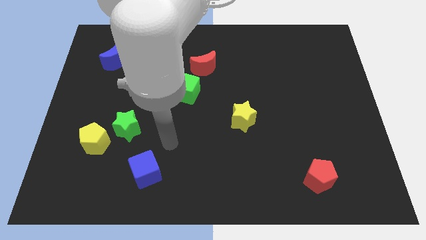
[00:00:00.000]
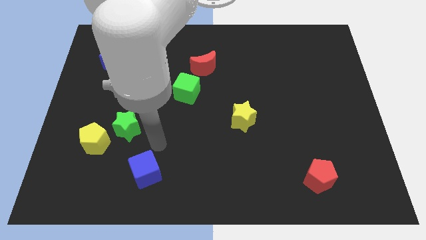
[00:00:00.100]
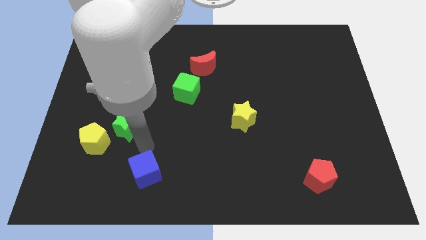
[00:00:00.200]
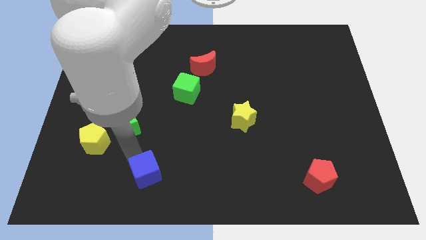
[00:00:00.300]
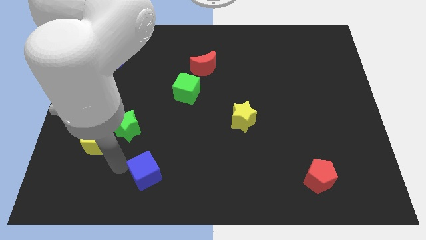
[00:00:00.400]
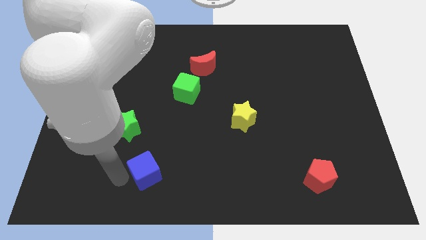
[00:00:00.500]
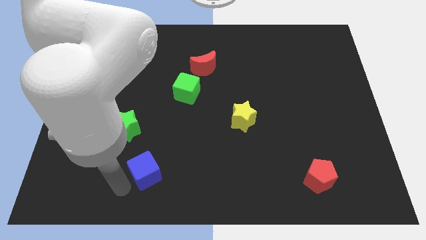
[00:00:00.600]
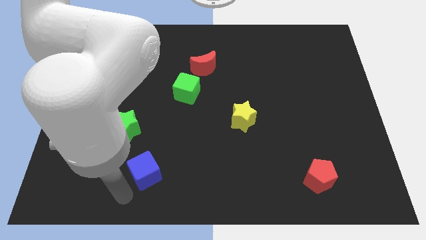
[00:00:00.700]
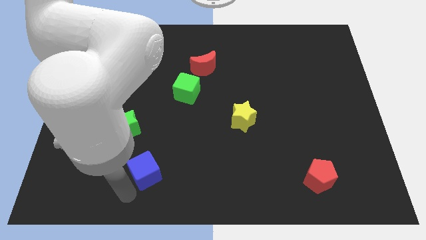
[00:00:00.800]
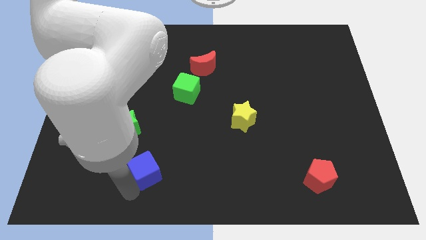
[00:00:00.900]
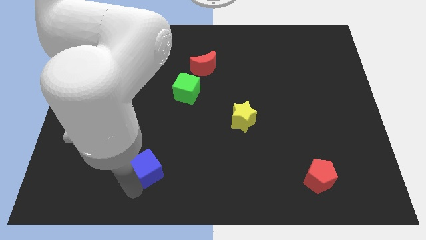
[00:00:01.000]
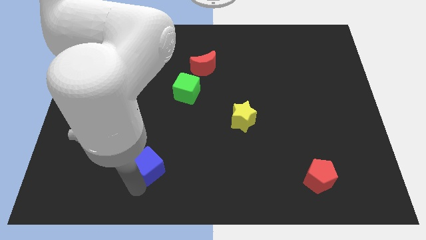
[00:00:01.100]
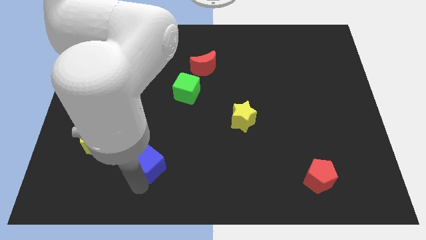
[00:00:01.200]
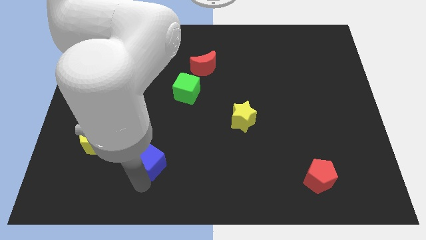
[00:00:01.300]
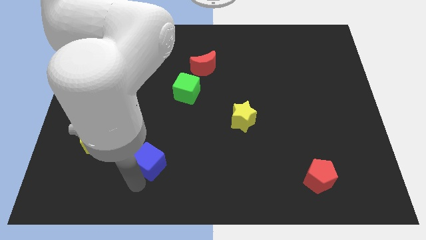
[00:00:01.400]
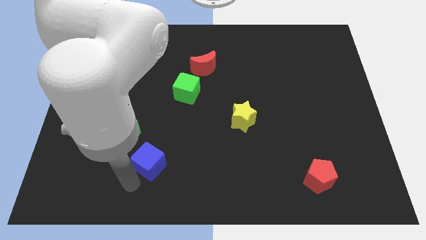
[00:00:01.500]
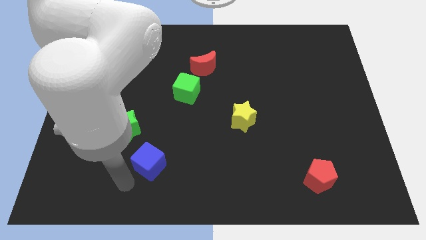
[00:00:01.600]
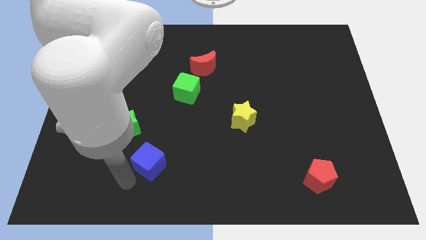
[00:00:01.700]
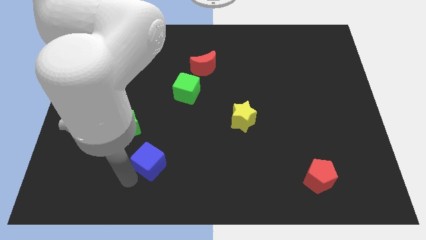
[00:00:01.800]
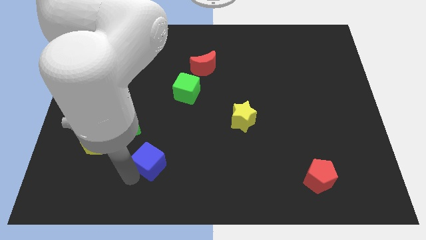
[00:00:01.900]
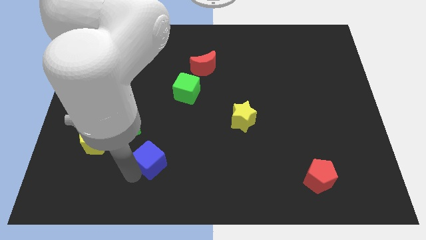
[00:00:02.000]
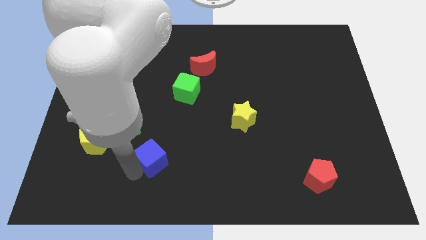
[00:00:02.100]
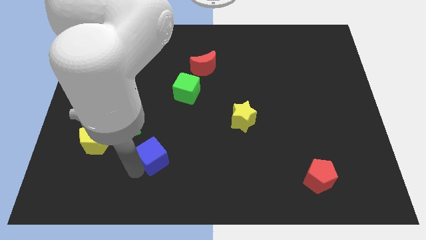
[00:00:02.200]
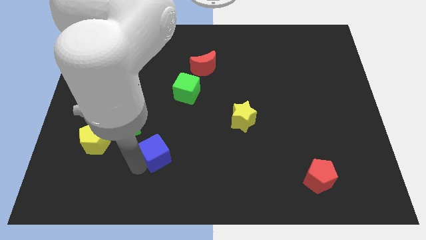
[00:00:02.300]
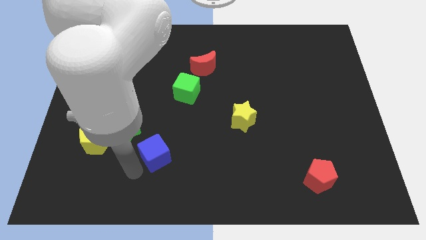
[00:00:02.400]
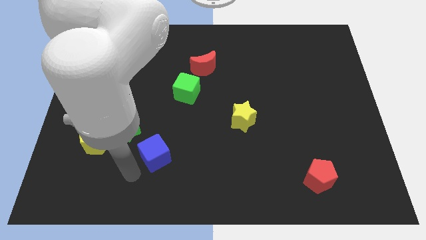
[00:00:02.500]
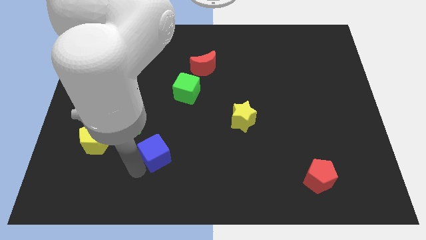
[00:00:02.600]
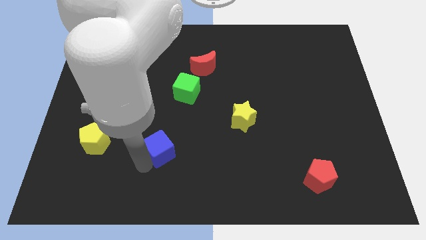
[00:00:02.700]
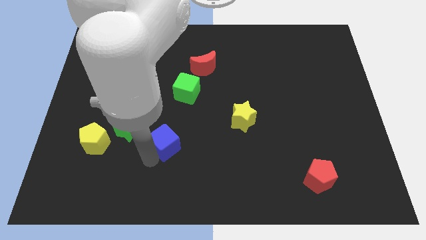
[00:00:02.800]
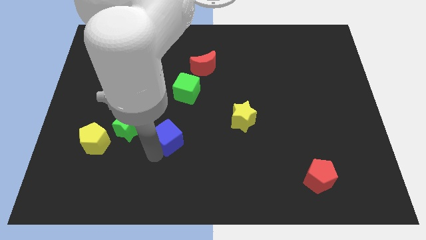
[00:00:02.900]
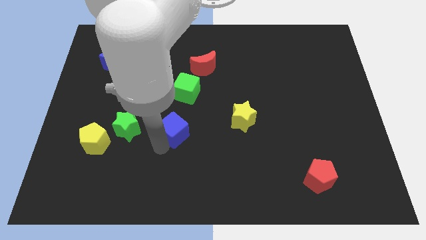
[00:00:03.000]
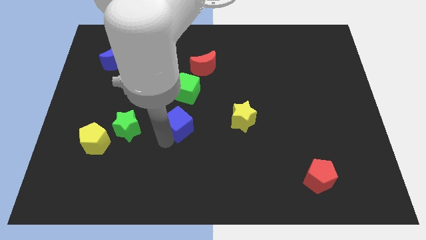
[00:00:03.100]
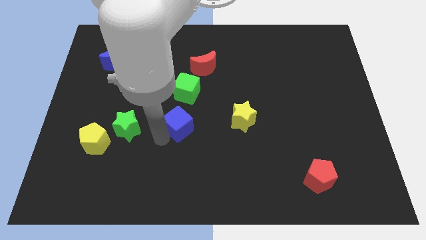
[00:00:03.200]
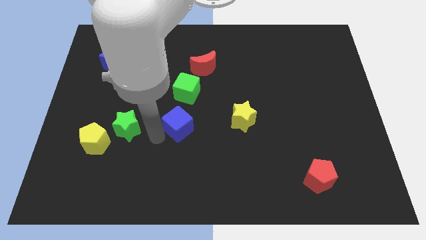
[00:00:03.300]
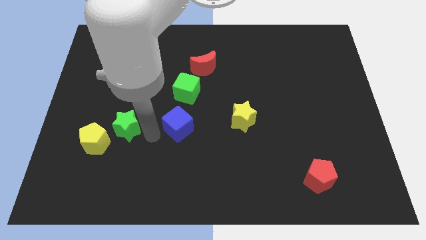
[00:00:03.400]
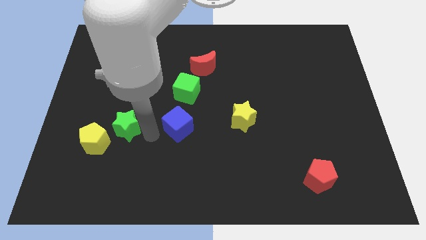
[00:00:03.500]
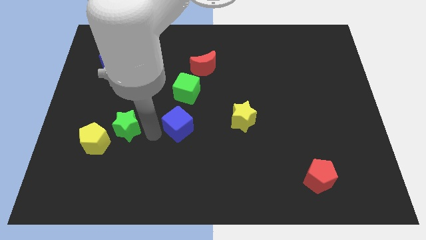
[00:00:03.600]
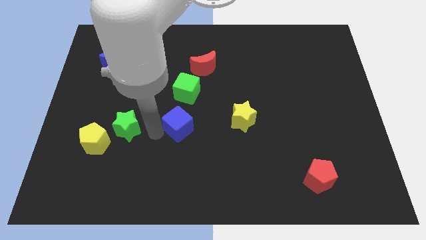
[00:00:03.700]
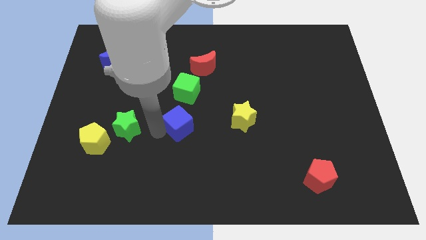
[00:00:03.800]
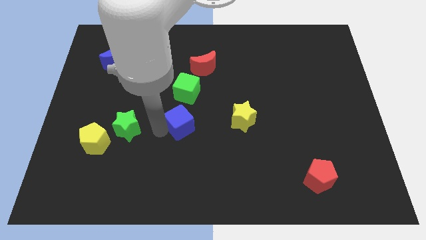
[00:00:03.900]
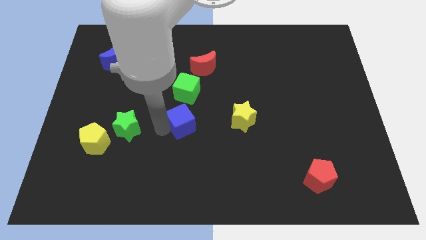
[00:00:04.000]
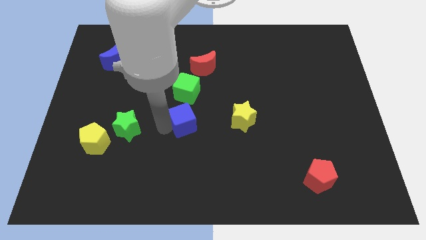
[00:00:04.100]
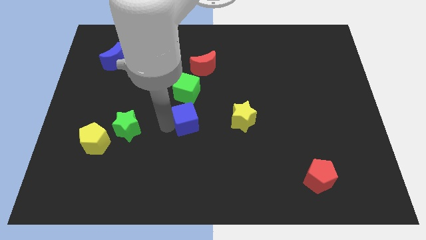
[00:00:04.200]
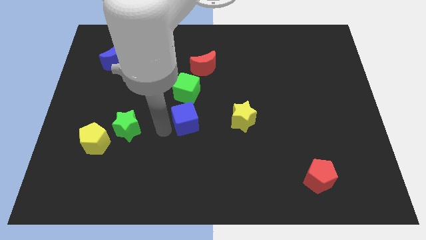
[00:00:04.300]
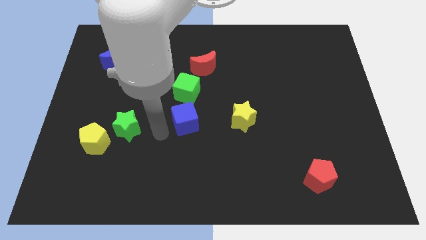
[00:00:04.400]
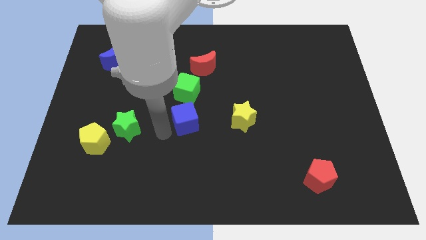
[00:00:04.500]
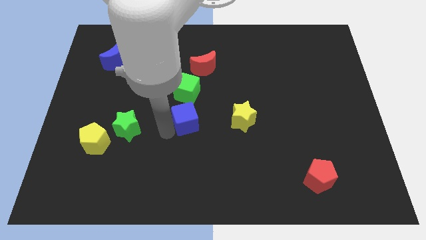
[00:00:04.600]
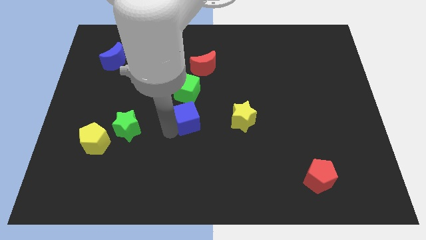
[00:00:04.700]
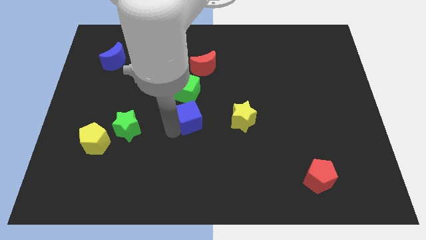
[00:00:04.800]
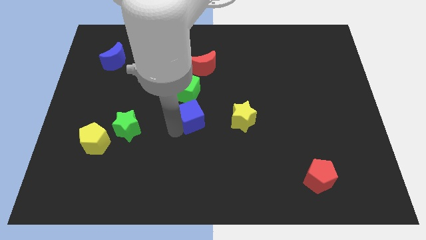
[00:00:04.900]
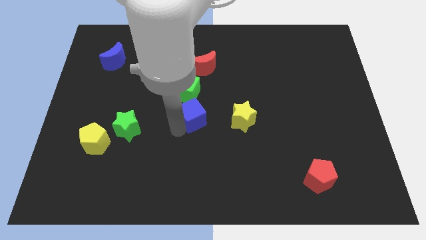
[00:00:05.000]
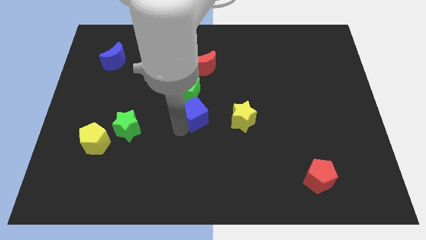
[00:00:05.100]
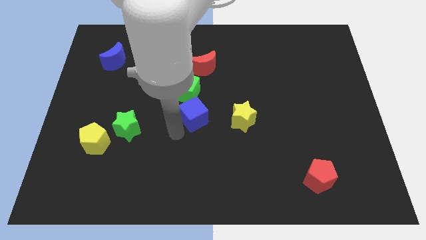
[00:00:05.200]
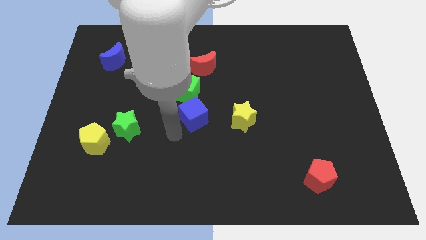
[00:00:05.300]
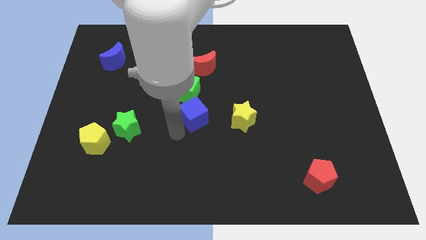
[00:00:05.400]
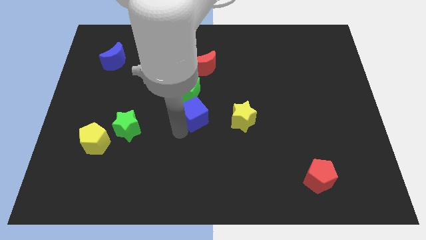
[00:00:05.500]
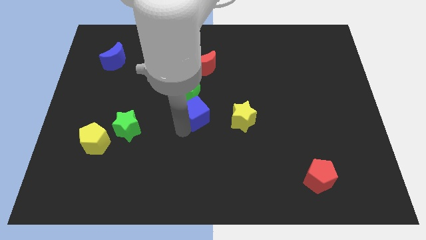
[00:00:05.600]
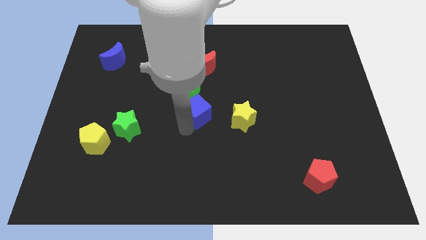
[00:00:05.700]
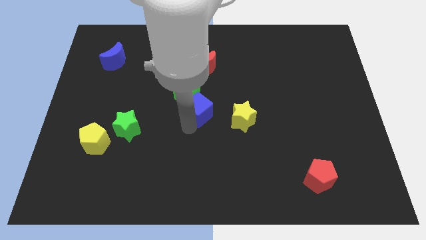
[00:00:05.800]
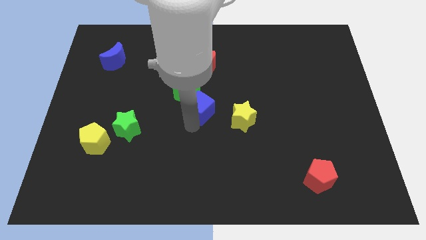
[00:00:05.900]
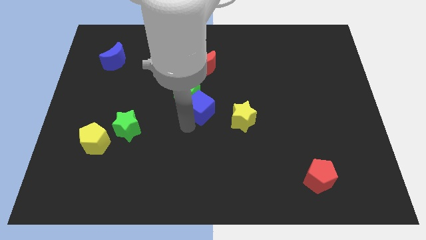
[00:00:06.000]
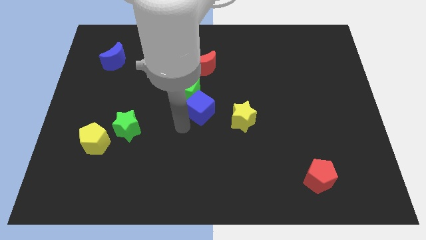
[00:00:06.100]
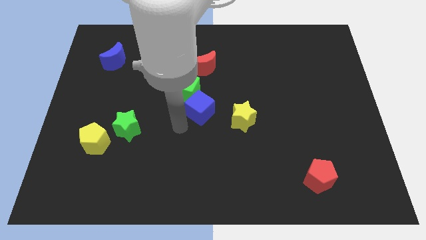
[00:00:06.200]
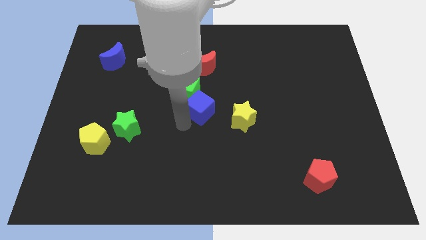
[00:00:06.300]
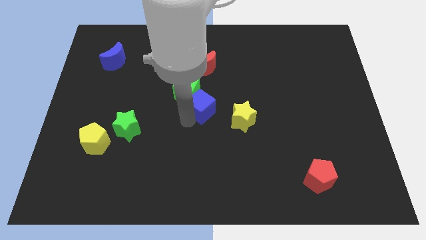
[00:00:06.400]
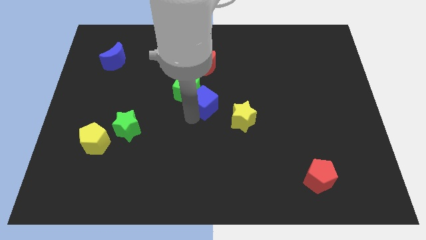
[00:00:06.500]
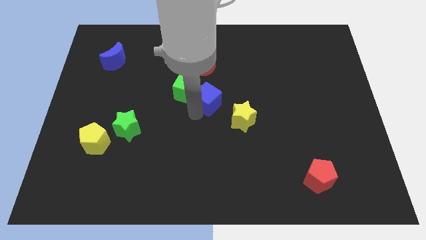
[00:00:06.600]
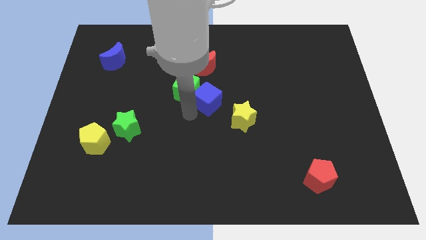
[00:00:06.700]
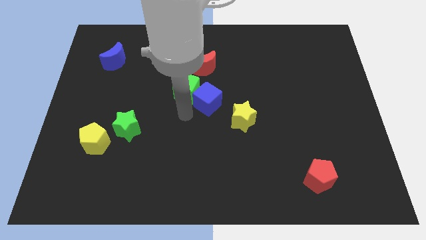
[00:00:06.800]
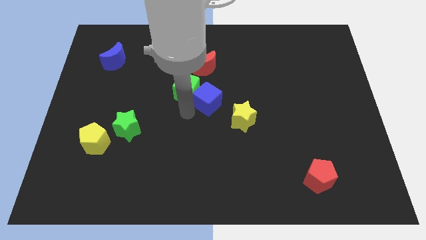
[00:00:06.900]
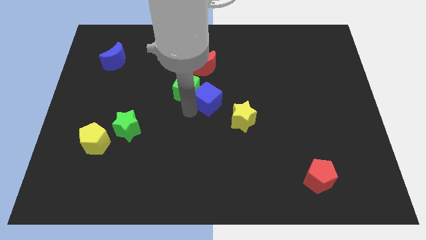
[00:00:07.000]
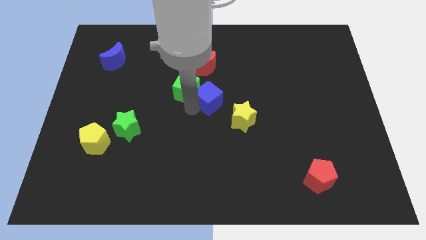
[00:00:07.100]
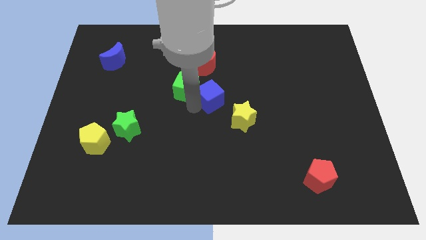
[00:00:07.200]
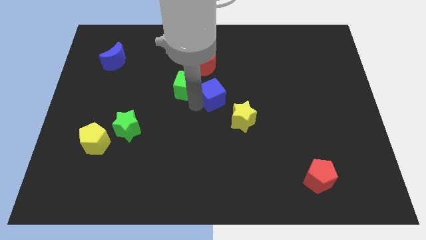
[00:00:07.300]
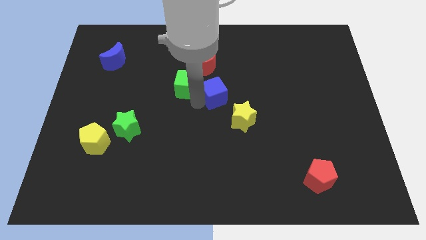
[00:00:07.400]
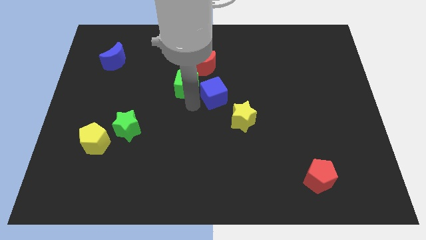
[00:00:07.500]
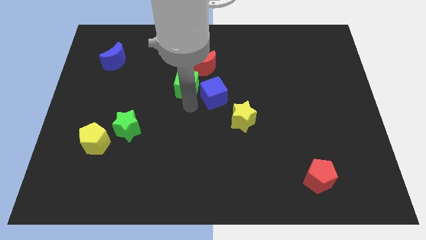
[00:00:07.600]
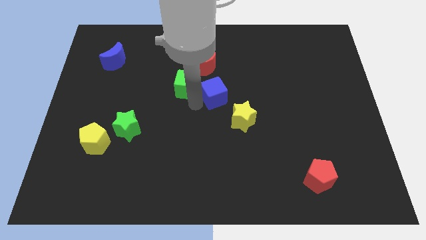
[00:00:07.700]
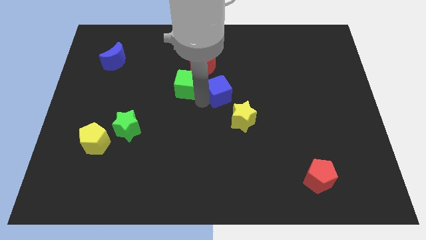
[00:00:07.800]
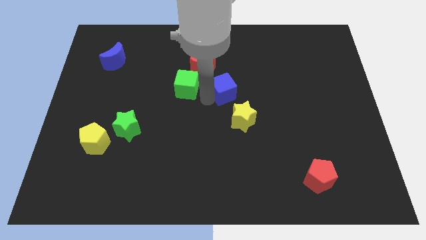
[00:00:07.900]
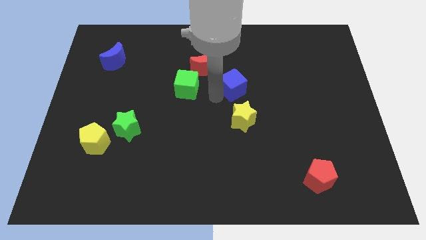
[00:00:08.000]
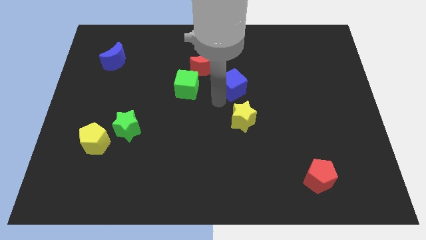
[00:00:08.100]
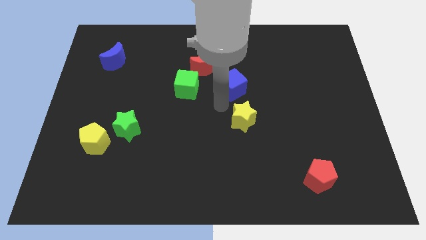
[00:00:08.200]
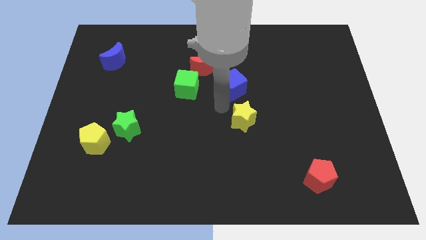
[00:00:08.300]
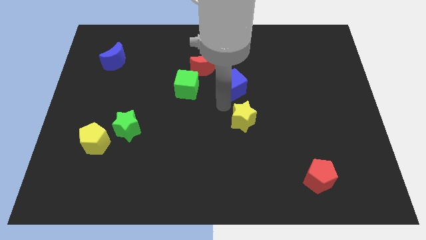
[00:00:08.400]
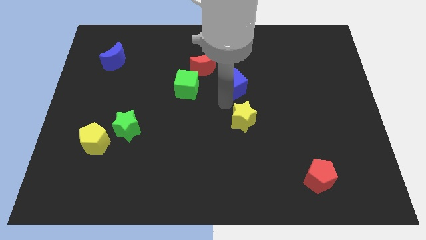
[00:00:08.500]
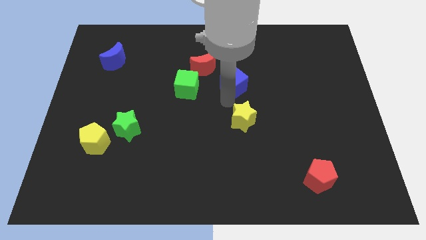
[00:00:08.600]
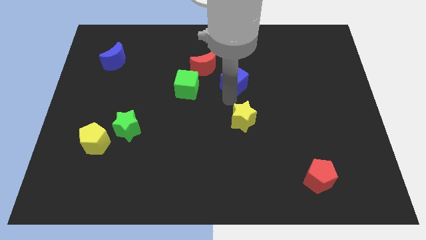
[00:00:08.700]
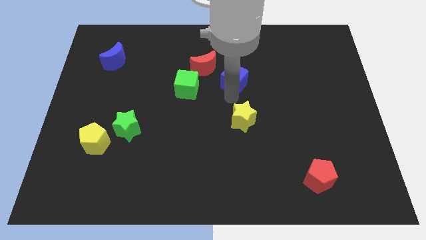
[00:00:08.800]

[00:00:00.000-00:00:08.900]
put the blue cube to the right of the red moon
